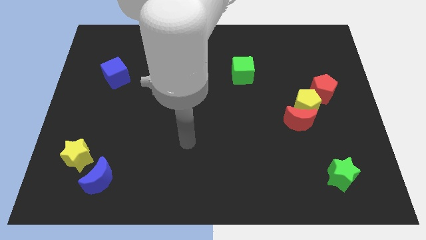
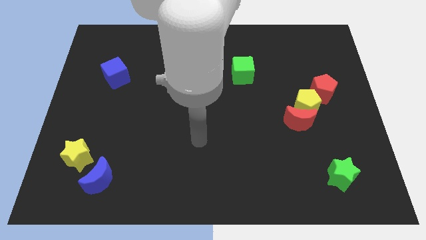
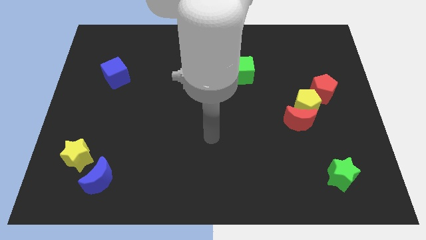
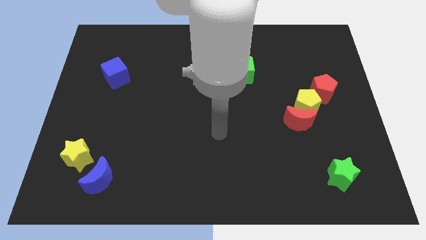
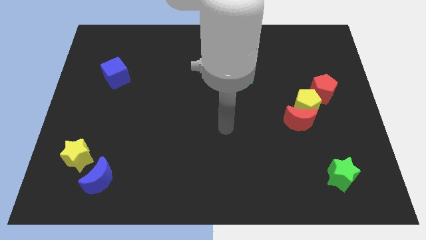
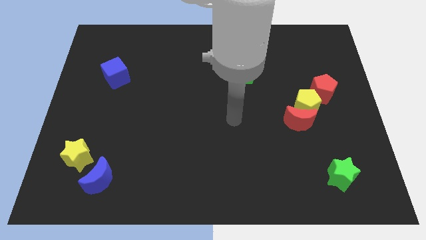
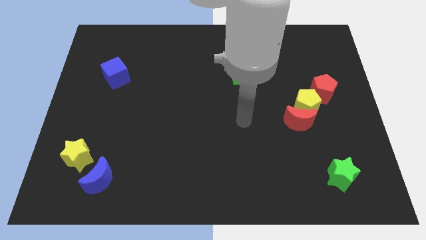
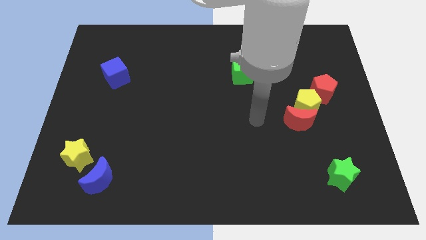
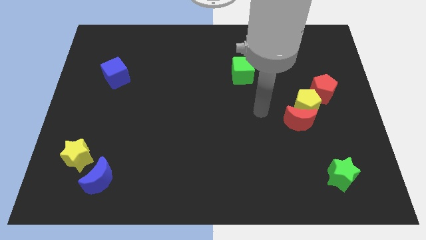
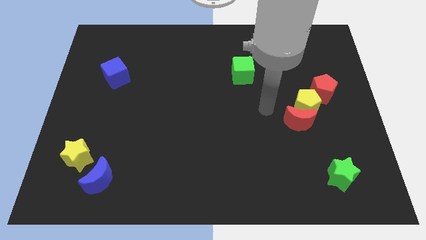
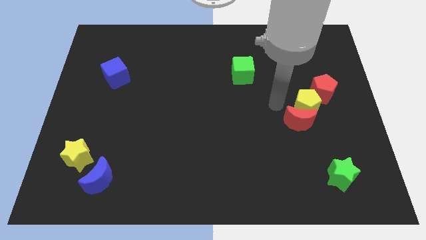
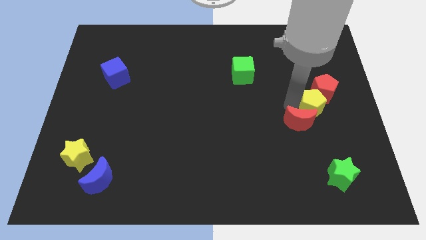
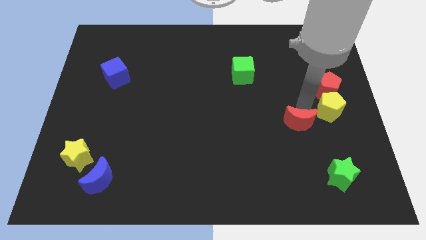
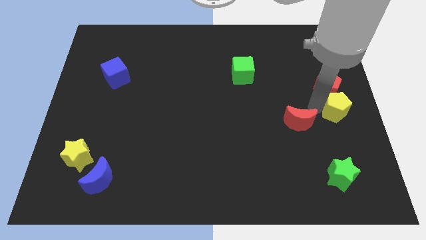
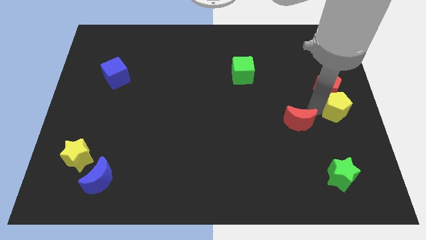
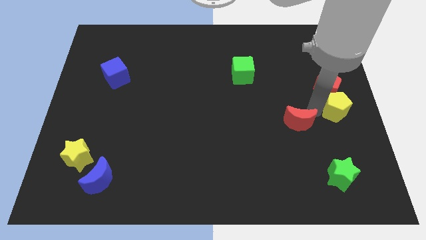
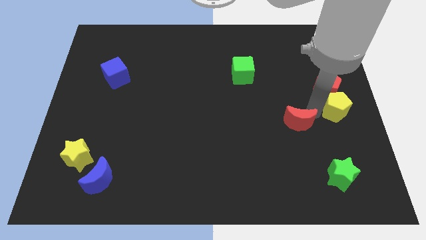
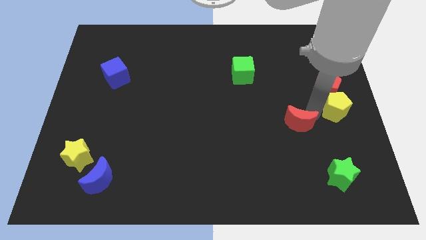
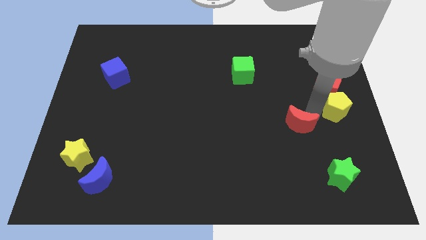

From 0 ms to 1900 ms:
move the red moon away from the yellow pentagon

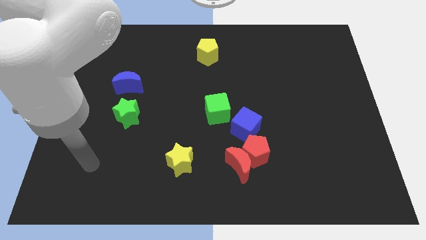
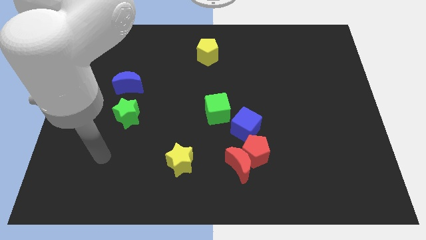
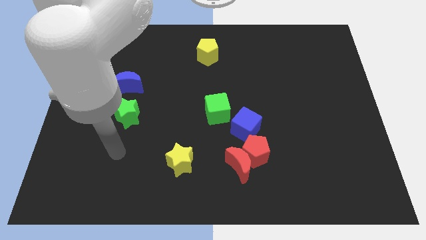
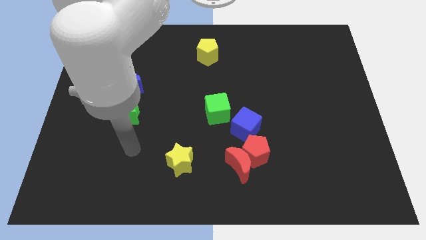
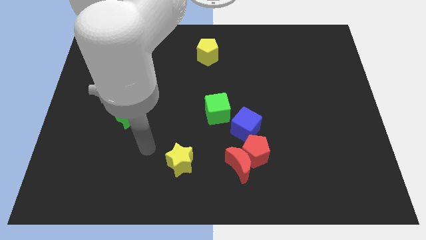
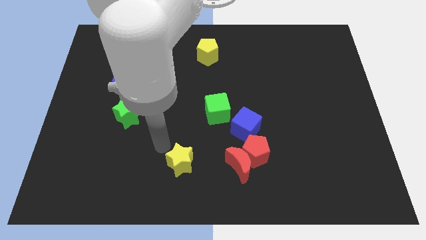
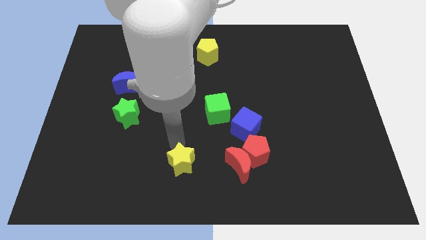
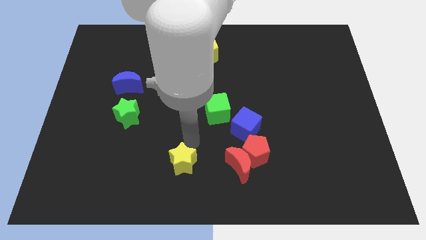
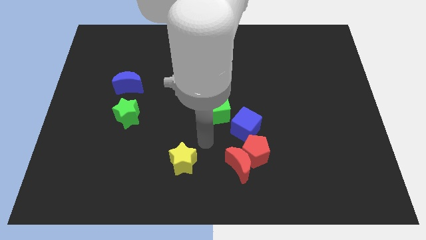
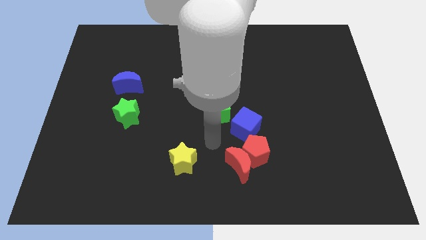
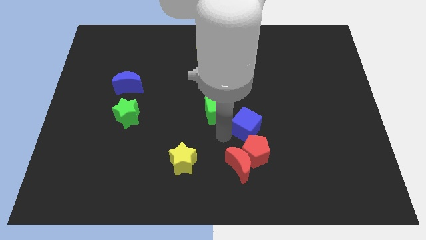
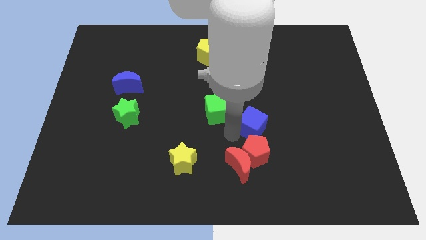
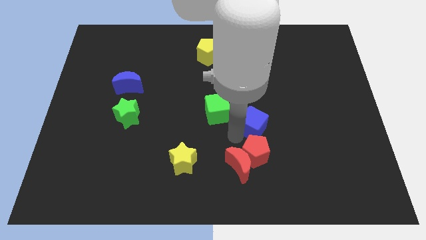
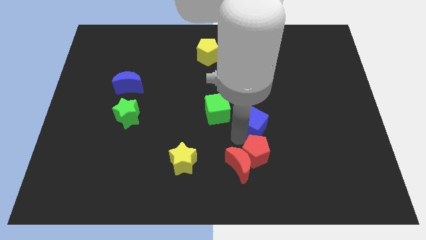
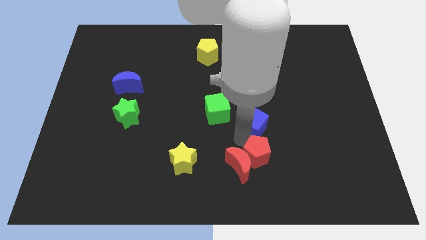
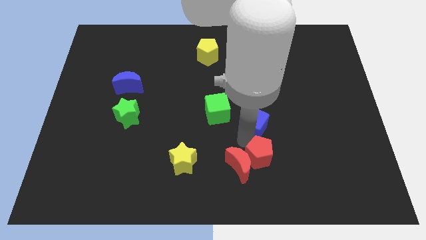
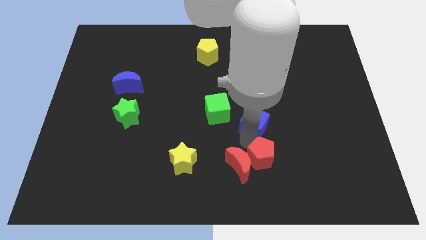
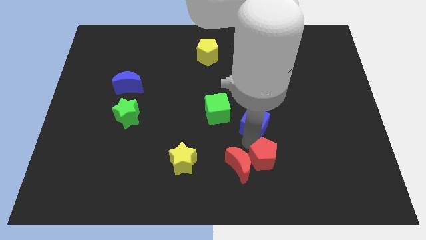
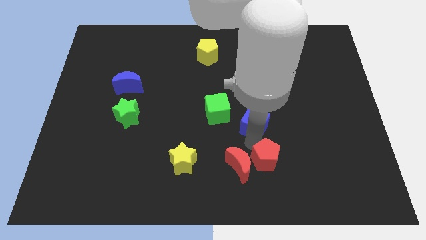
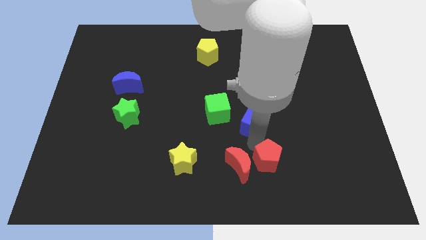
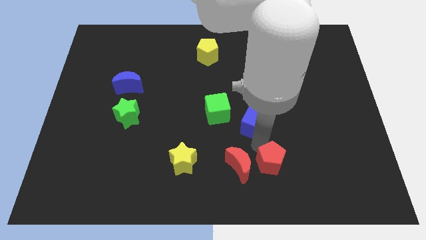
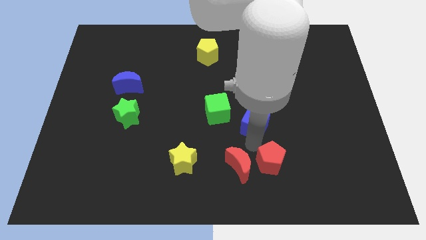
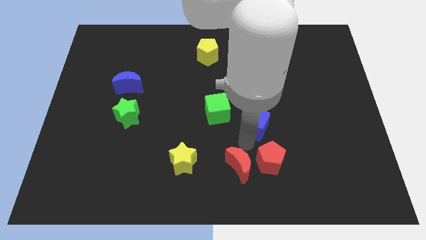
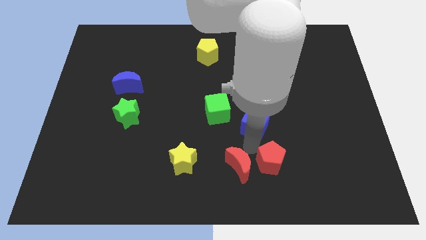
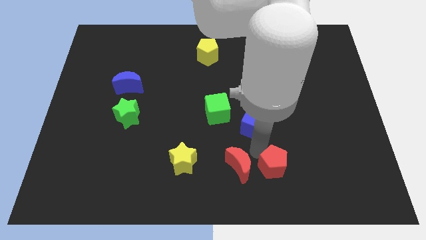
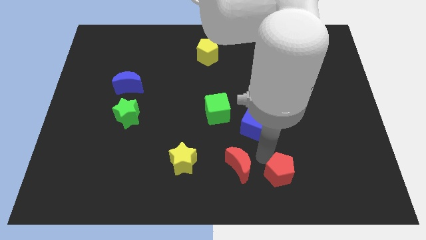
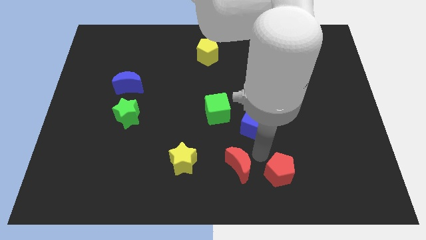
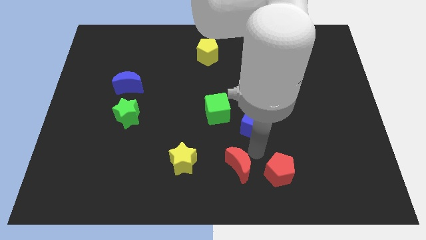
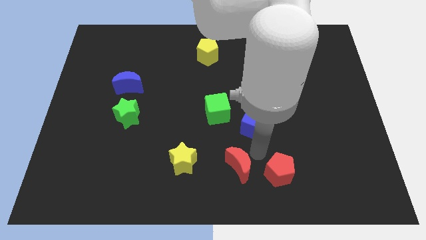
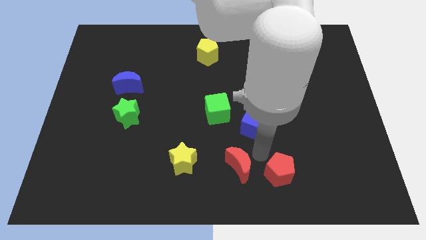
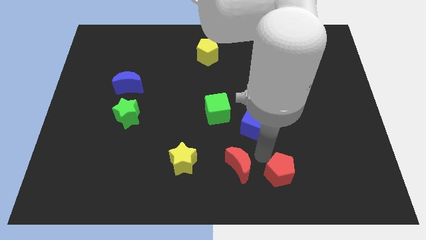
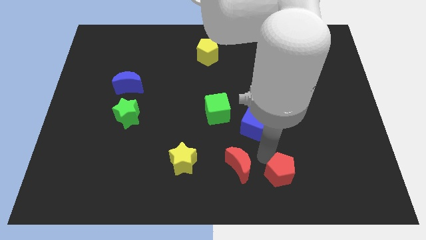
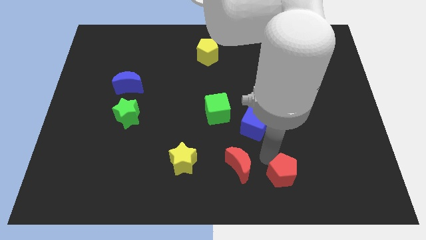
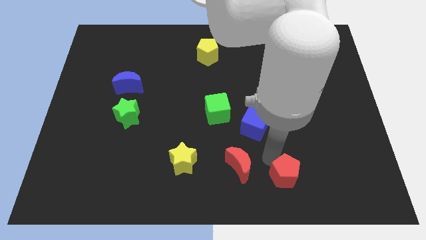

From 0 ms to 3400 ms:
separate the red pentagon from the red moon and blue cube

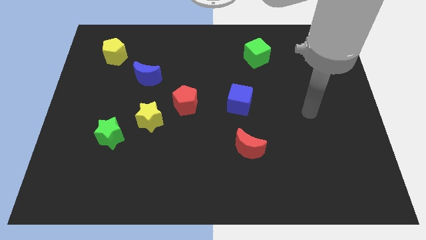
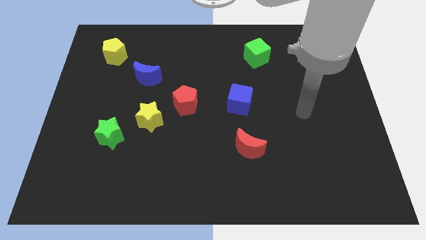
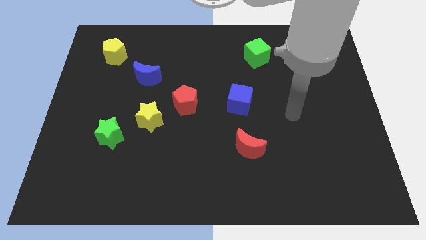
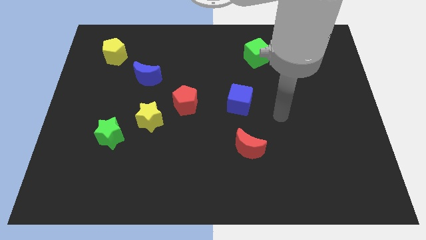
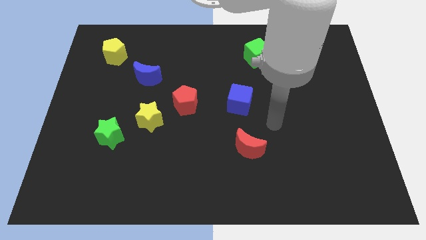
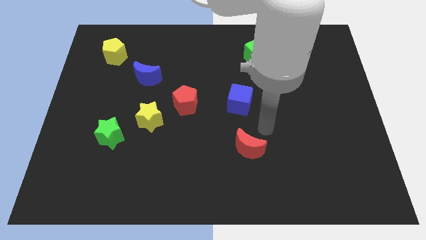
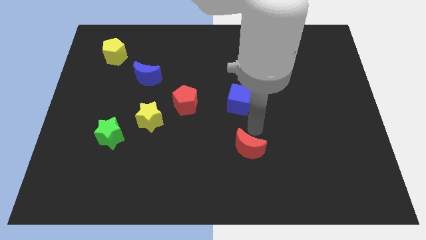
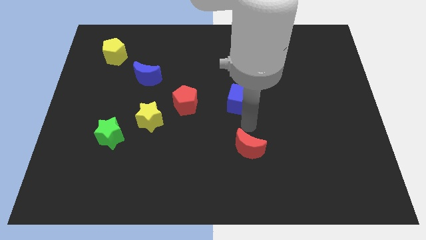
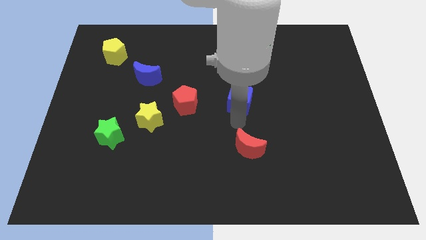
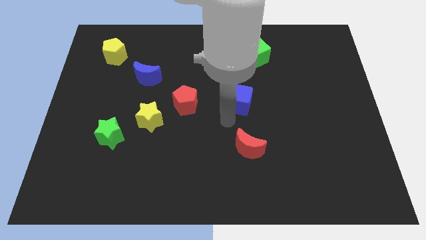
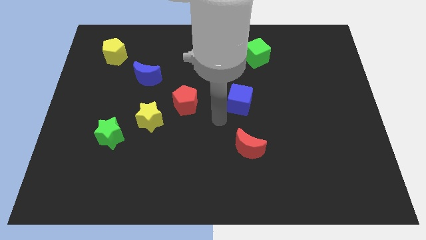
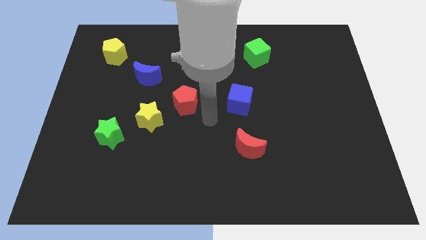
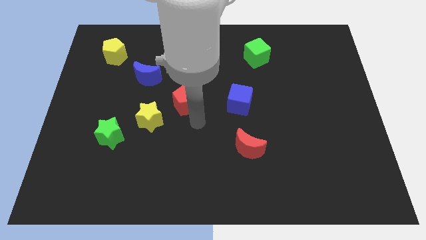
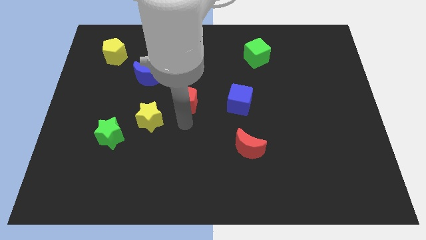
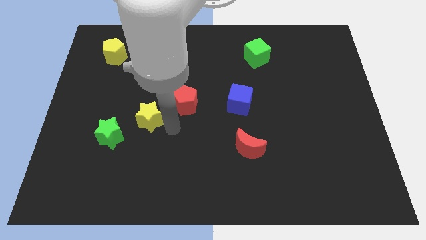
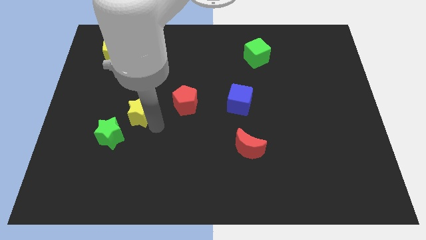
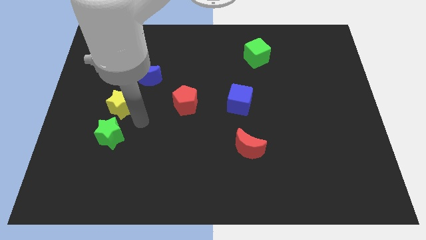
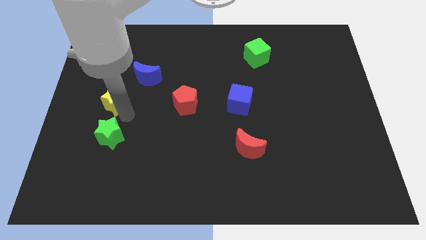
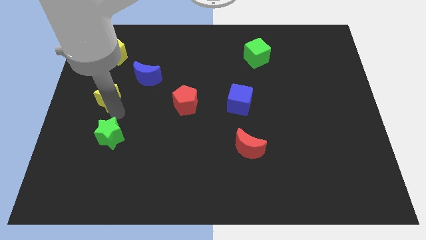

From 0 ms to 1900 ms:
move the green star away from the yellow star

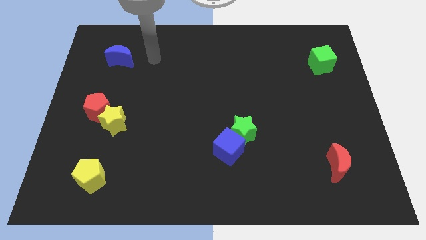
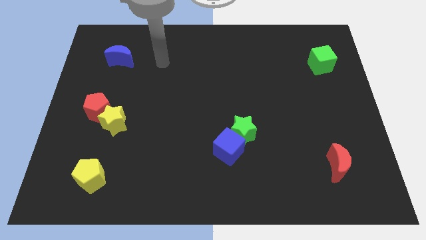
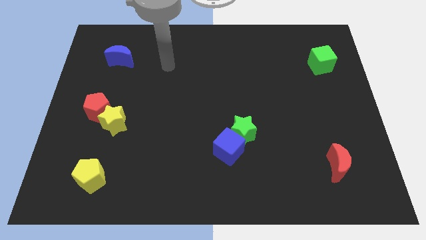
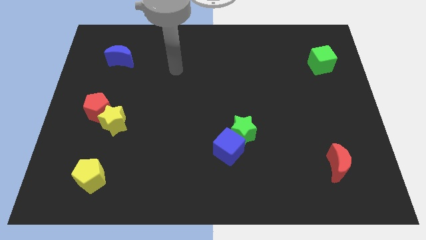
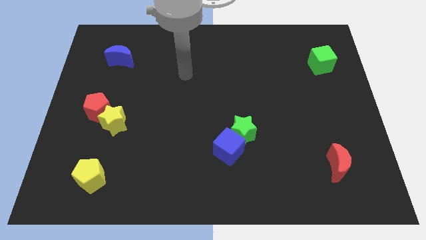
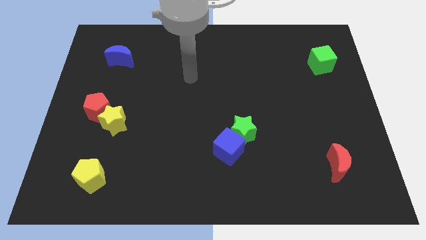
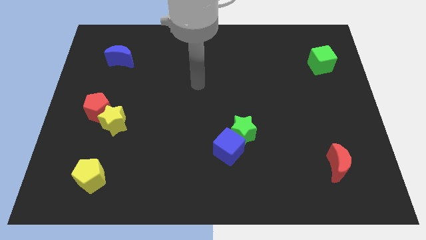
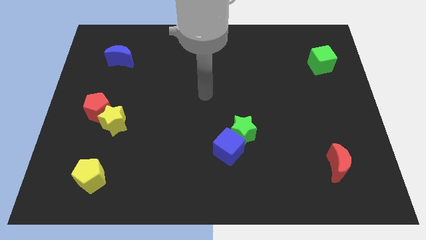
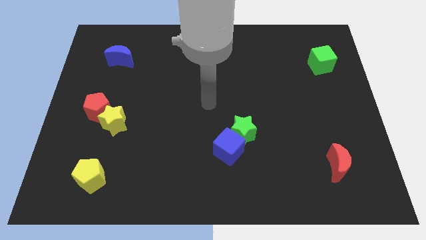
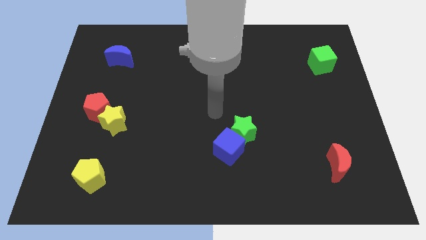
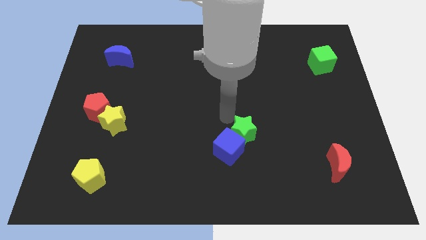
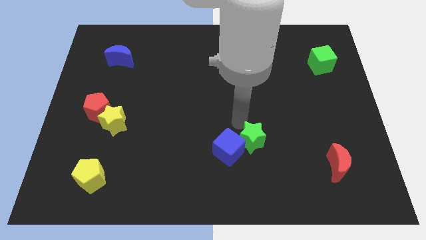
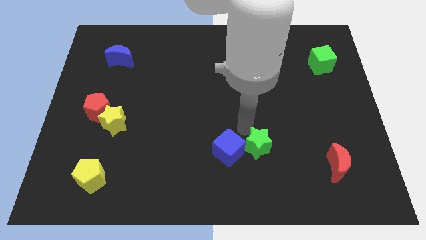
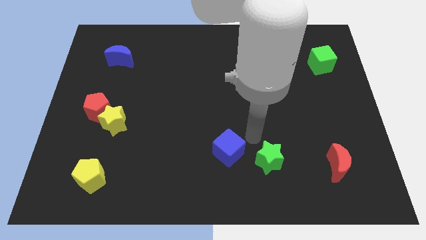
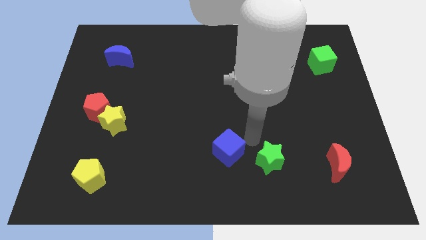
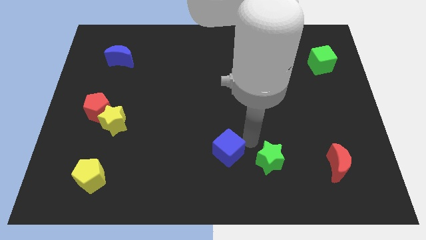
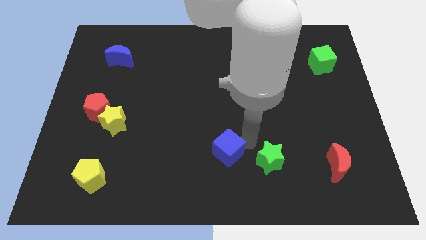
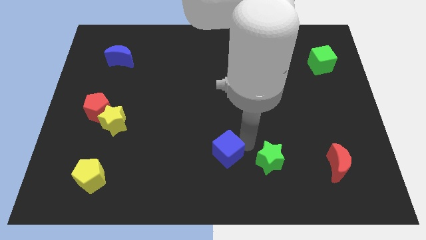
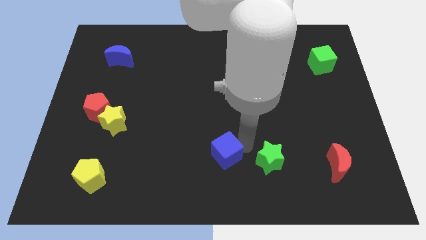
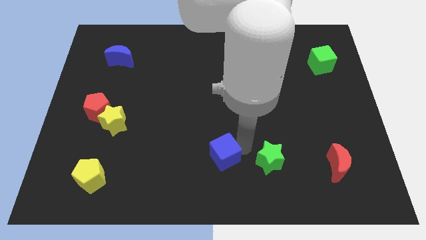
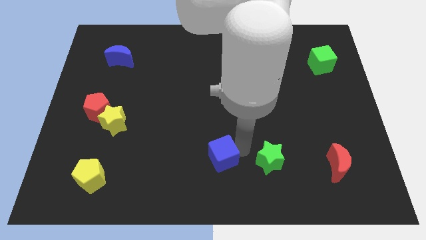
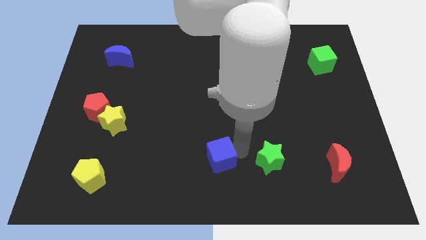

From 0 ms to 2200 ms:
move the blue cube away from the green star
